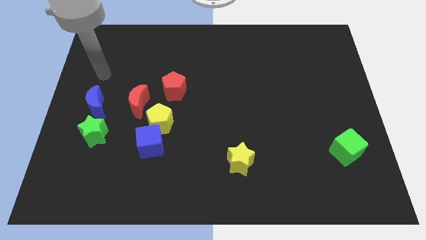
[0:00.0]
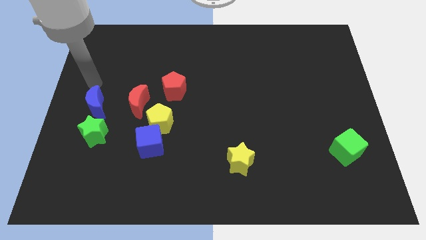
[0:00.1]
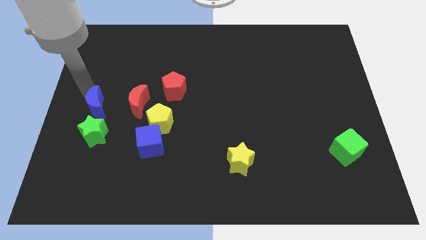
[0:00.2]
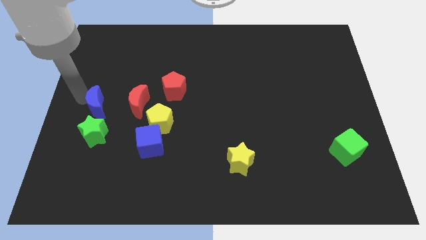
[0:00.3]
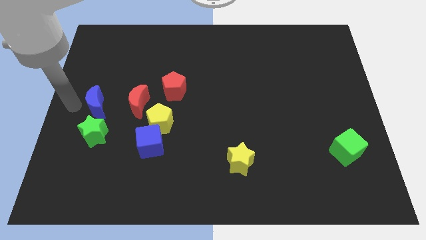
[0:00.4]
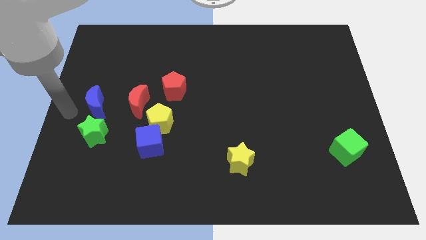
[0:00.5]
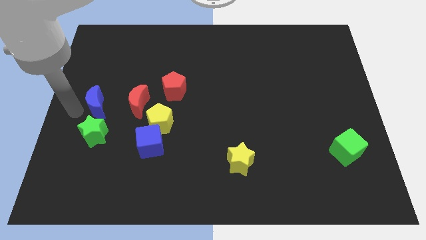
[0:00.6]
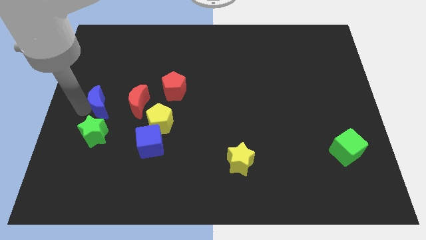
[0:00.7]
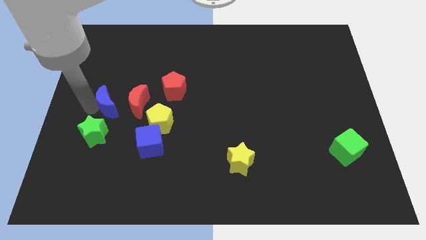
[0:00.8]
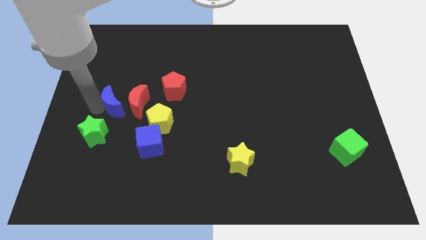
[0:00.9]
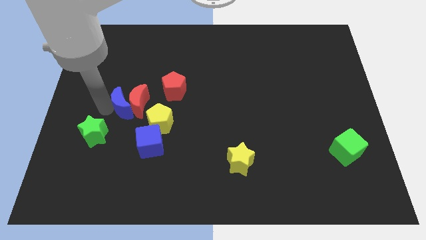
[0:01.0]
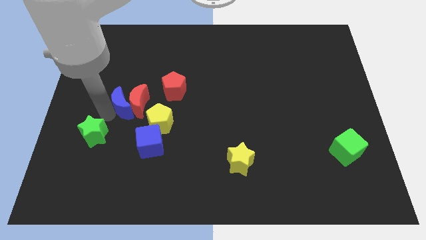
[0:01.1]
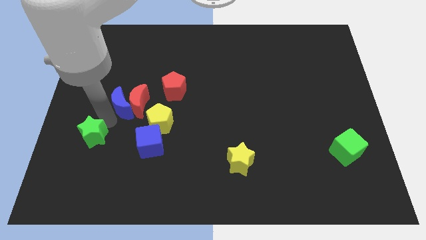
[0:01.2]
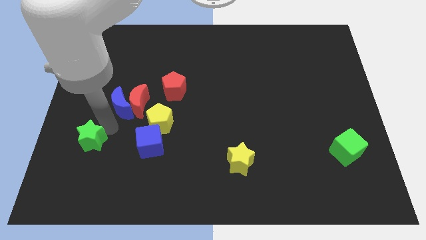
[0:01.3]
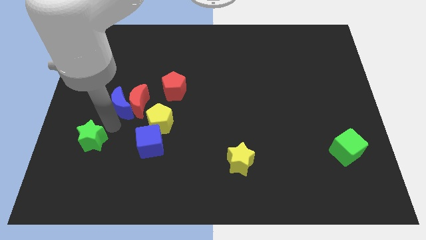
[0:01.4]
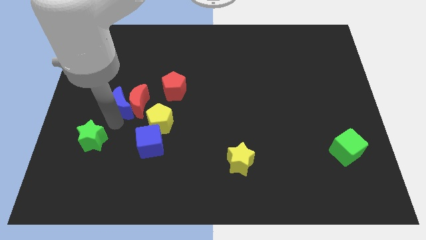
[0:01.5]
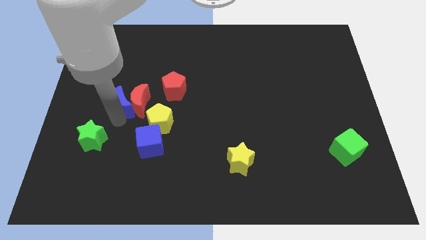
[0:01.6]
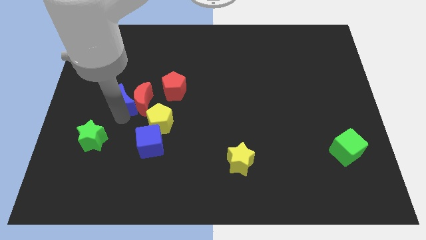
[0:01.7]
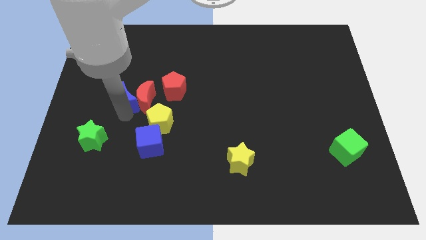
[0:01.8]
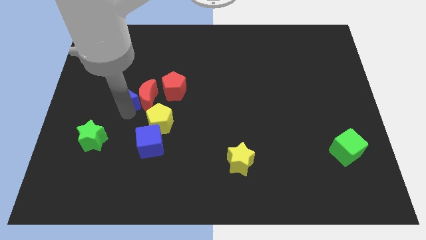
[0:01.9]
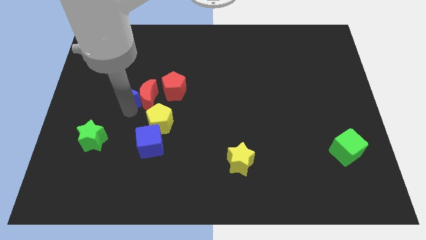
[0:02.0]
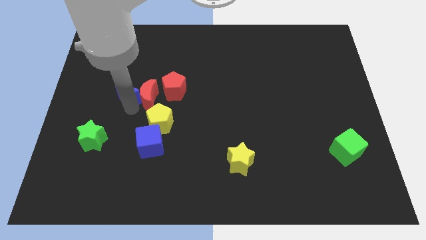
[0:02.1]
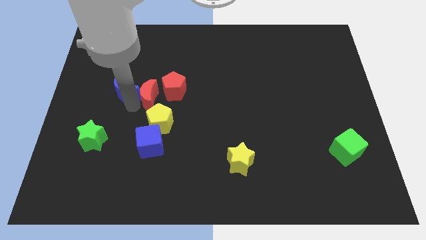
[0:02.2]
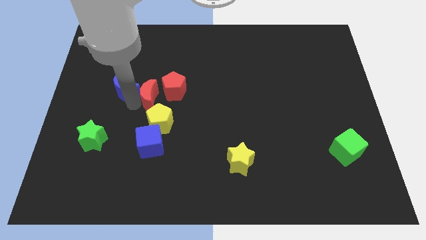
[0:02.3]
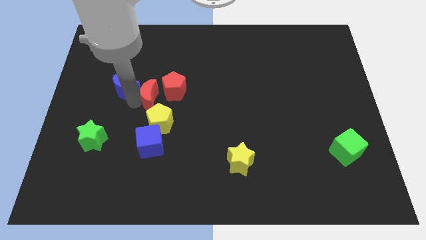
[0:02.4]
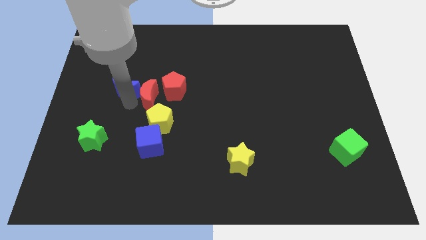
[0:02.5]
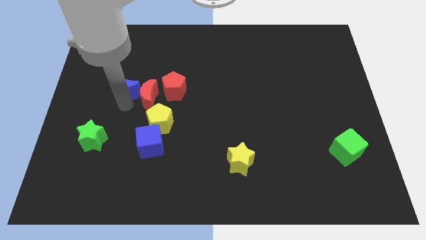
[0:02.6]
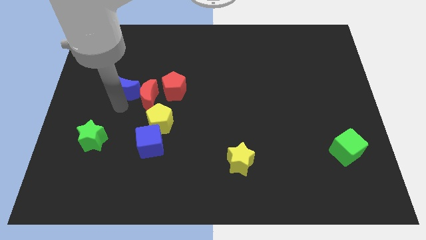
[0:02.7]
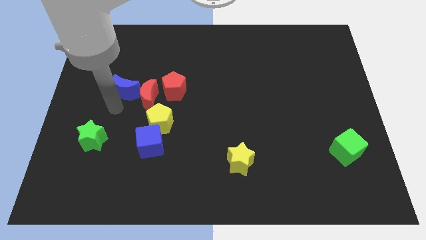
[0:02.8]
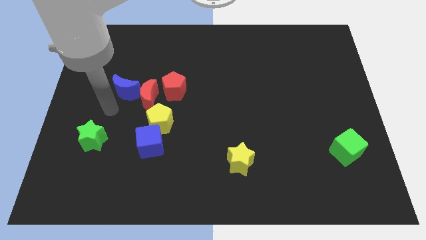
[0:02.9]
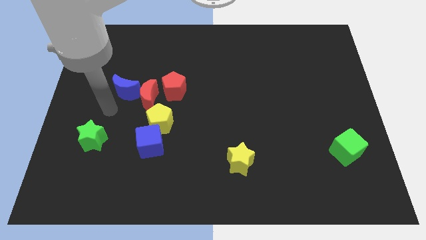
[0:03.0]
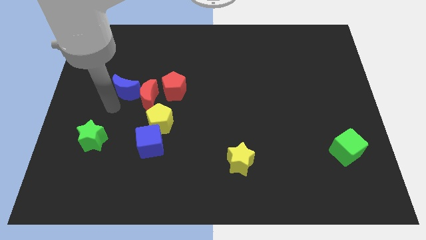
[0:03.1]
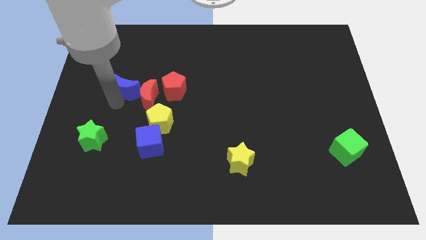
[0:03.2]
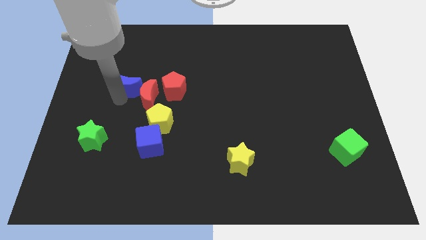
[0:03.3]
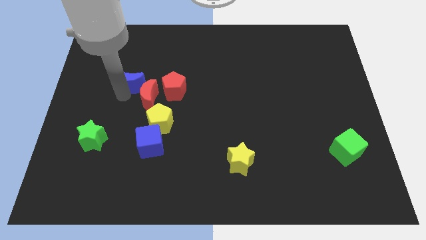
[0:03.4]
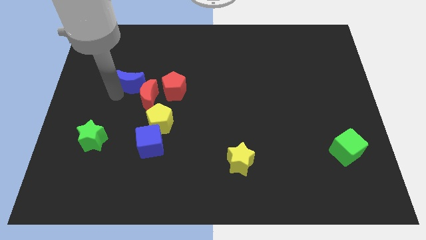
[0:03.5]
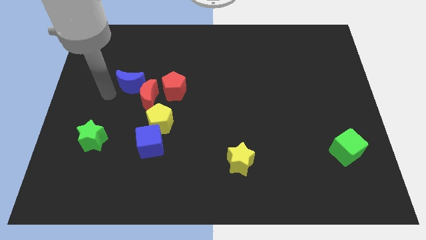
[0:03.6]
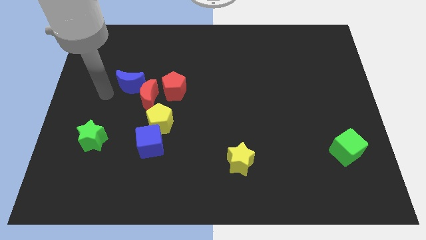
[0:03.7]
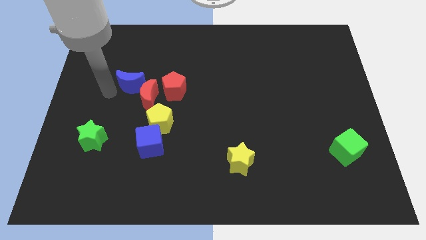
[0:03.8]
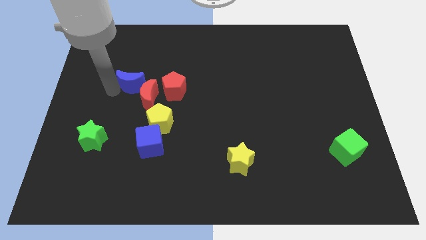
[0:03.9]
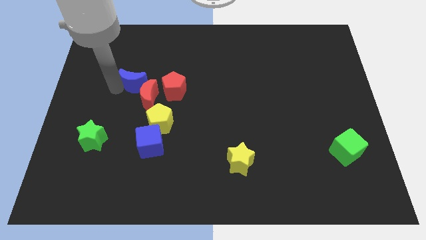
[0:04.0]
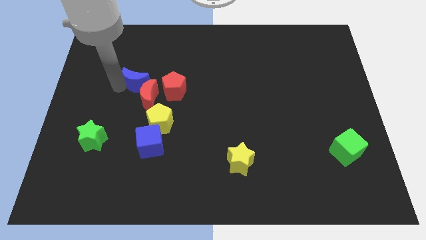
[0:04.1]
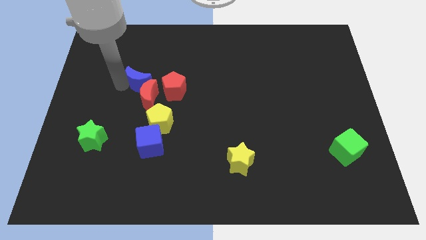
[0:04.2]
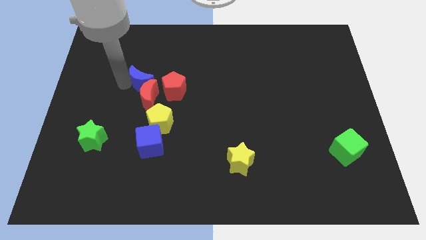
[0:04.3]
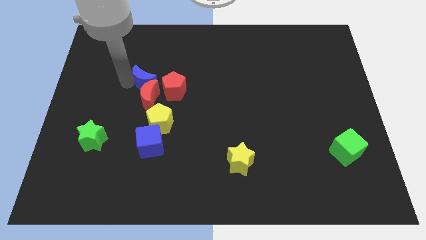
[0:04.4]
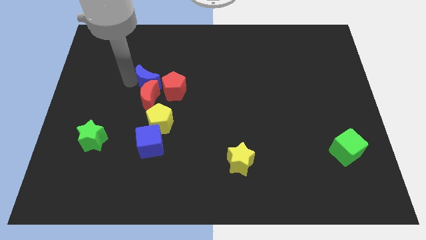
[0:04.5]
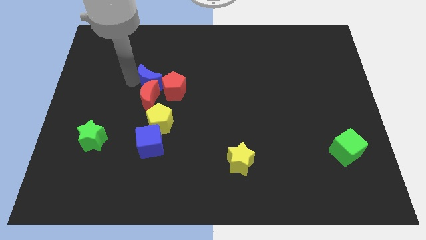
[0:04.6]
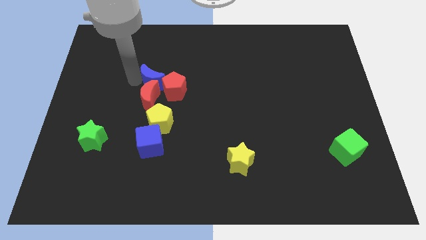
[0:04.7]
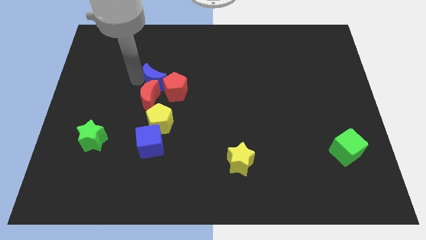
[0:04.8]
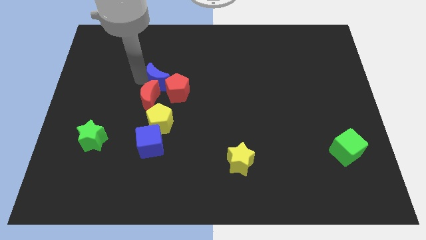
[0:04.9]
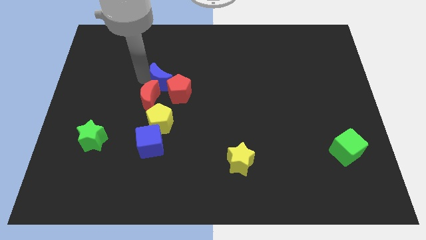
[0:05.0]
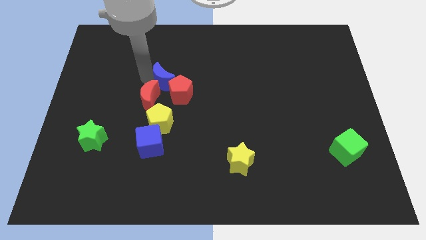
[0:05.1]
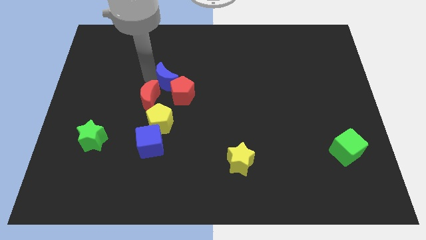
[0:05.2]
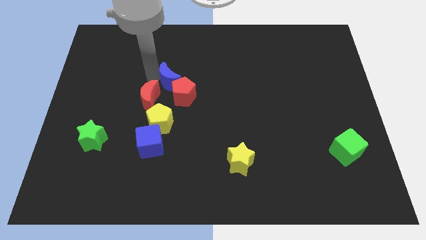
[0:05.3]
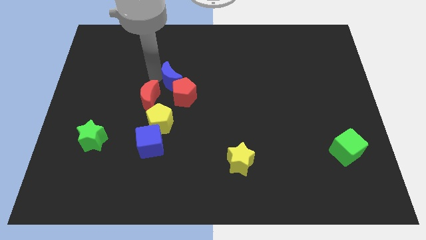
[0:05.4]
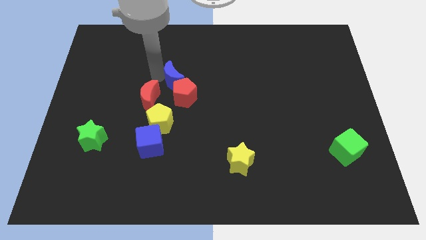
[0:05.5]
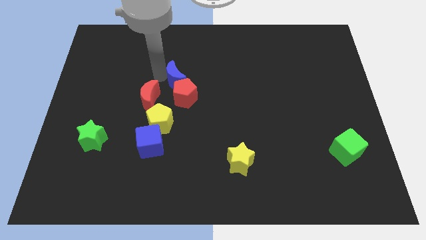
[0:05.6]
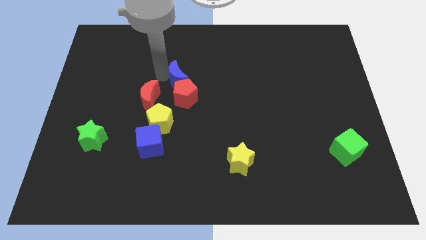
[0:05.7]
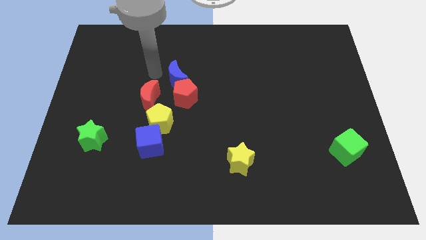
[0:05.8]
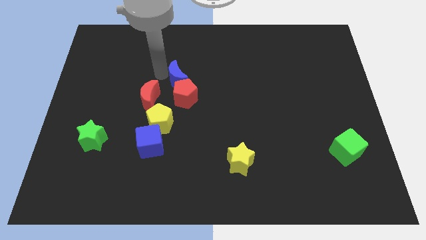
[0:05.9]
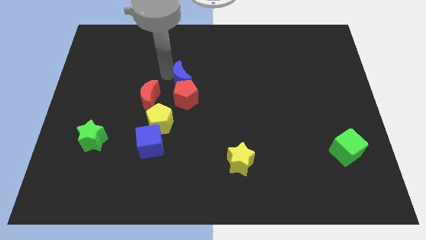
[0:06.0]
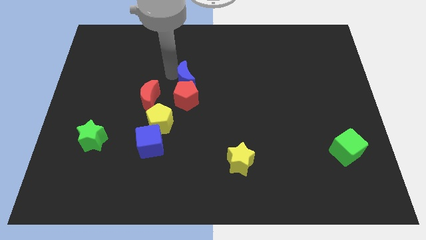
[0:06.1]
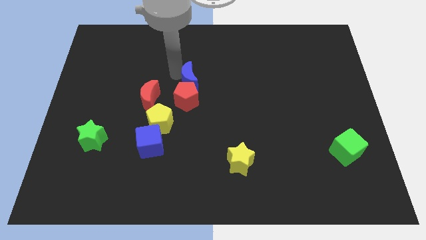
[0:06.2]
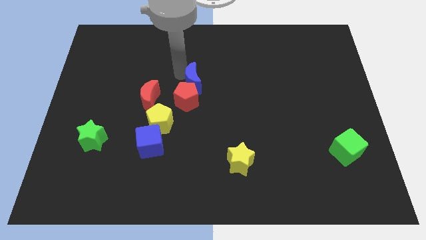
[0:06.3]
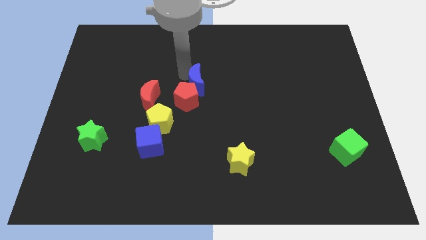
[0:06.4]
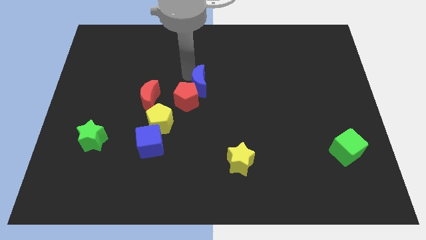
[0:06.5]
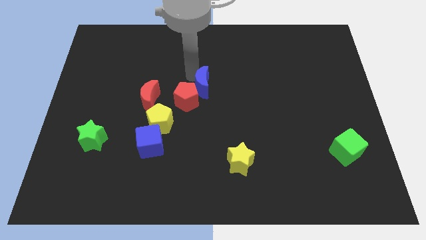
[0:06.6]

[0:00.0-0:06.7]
push the blue moon to the right side of the red pentagon

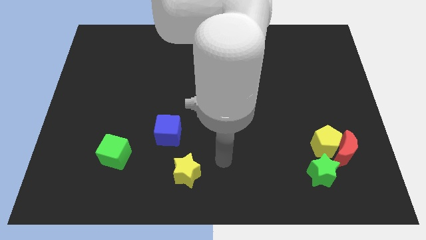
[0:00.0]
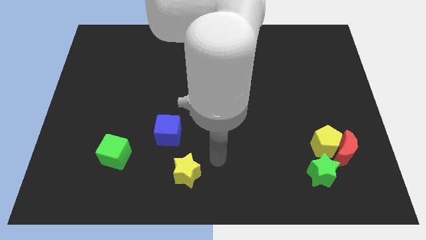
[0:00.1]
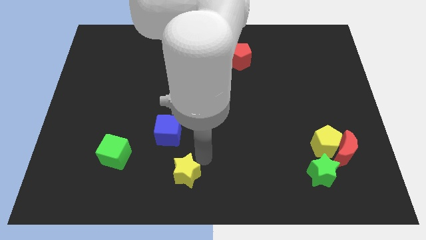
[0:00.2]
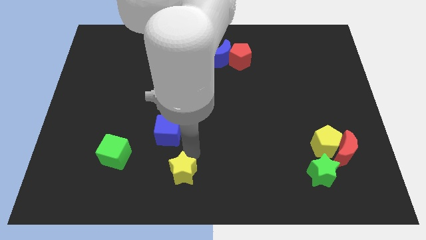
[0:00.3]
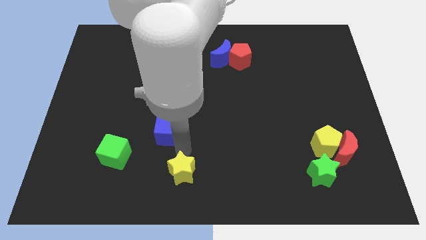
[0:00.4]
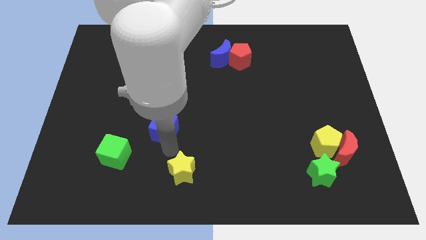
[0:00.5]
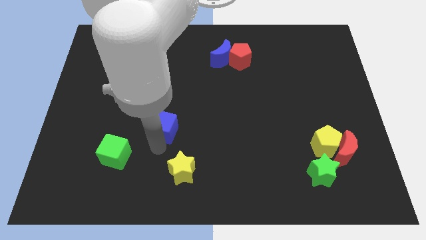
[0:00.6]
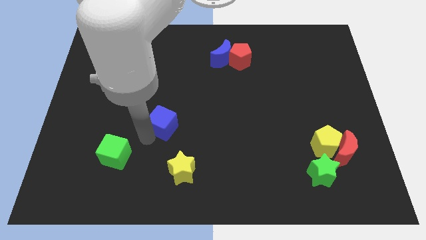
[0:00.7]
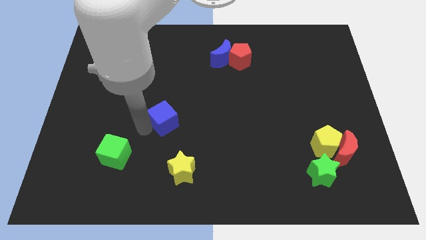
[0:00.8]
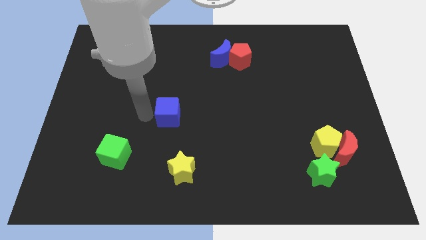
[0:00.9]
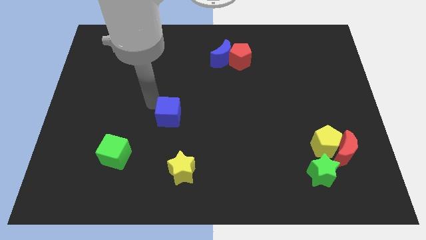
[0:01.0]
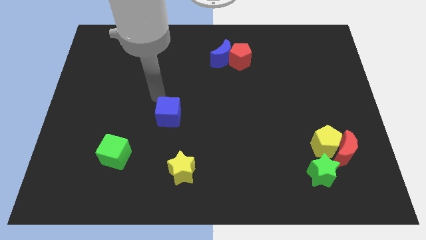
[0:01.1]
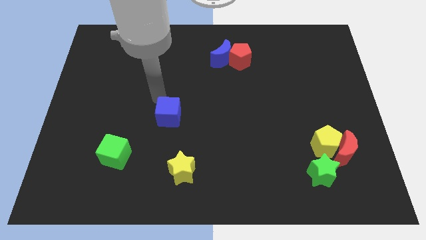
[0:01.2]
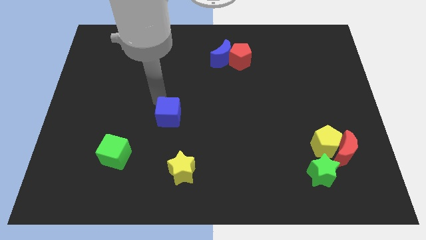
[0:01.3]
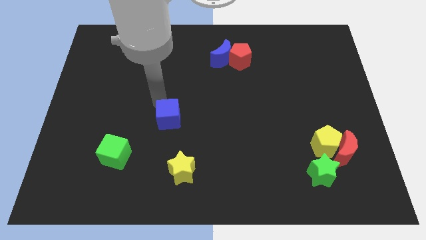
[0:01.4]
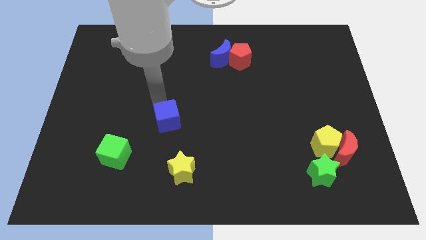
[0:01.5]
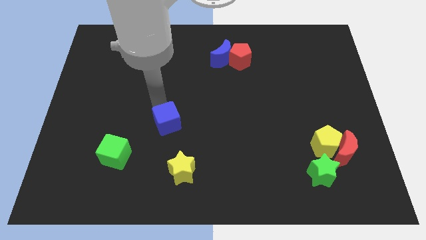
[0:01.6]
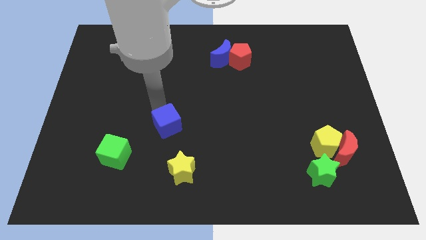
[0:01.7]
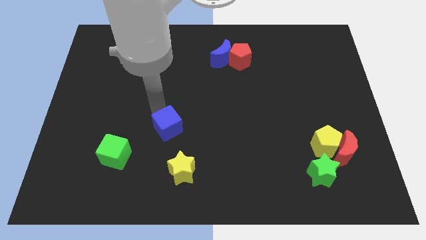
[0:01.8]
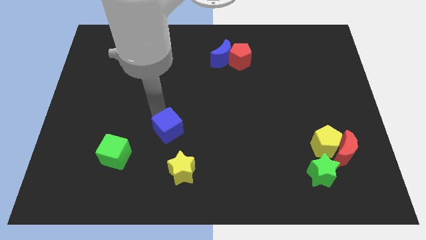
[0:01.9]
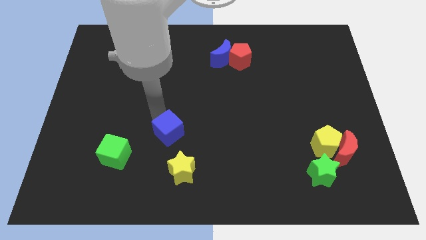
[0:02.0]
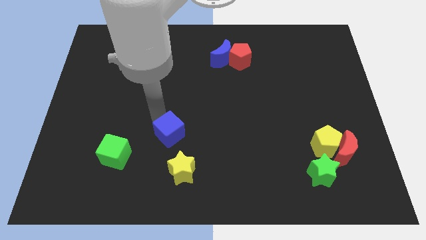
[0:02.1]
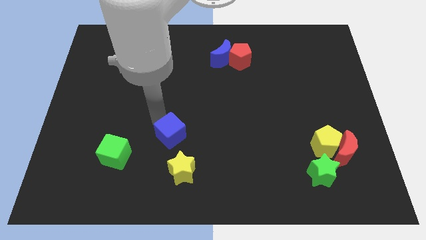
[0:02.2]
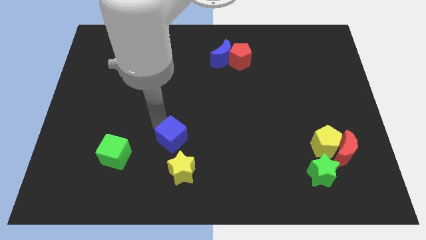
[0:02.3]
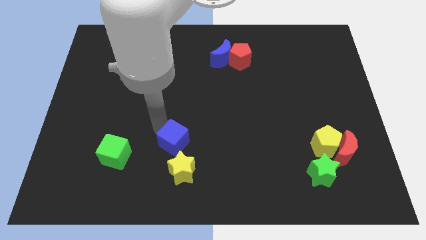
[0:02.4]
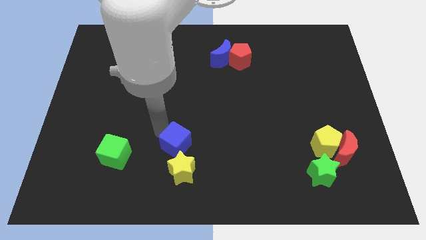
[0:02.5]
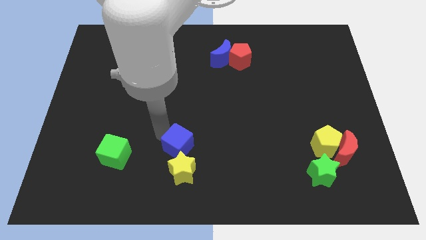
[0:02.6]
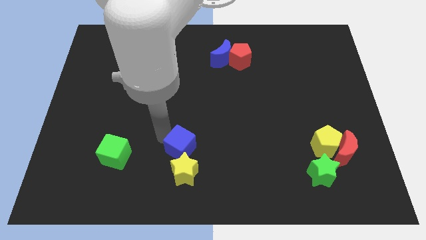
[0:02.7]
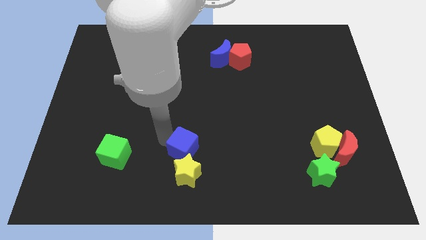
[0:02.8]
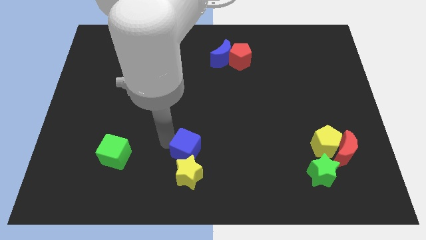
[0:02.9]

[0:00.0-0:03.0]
slide the blue cube to the top right side of the yellow star
